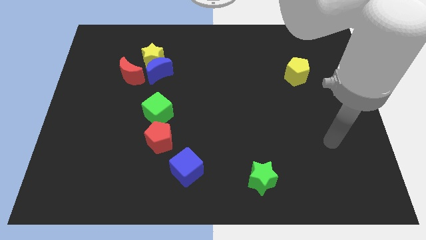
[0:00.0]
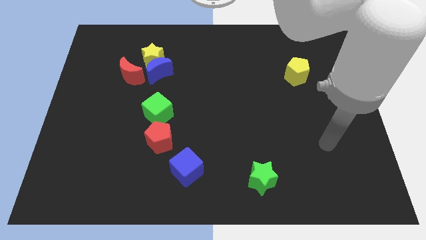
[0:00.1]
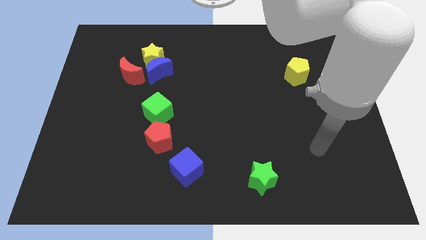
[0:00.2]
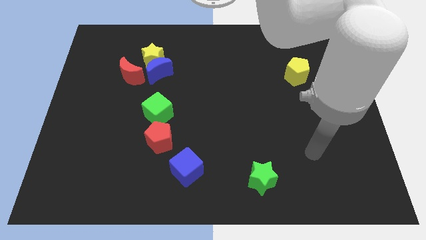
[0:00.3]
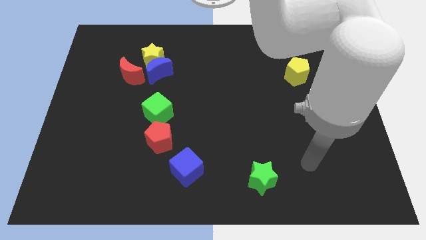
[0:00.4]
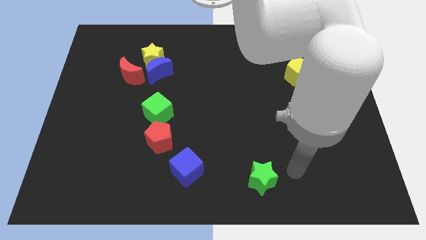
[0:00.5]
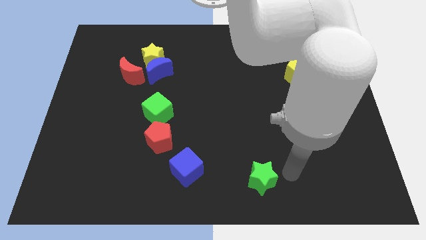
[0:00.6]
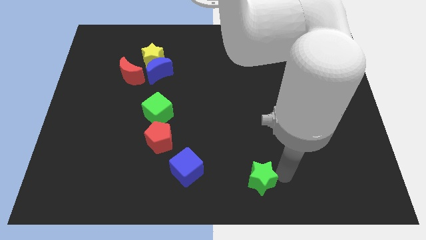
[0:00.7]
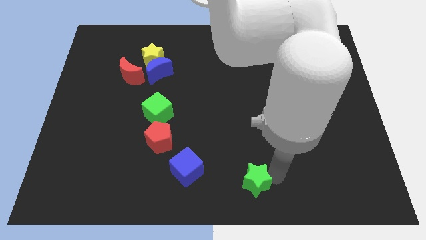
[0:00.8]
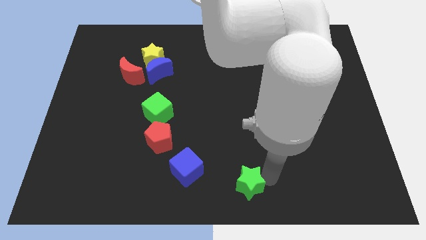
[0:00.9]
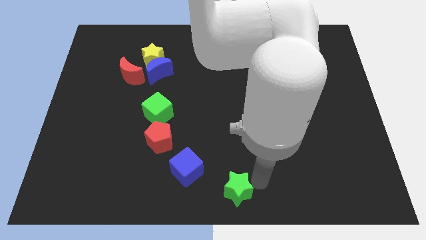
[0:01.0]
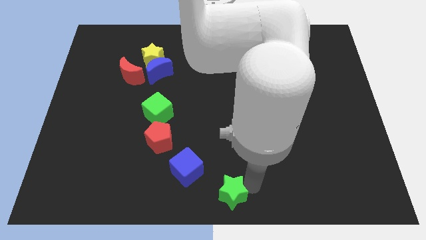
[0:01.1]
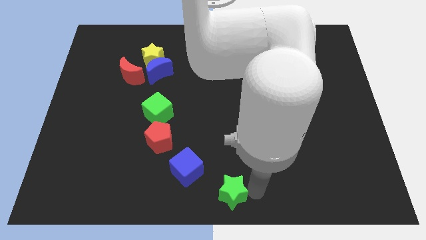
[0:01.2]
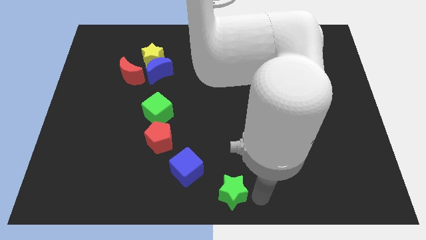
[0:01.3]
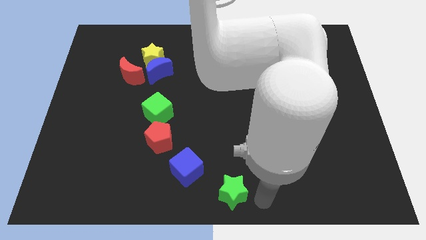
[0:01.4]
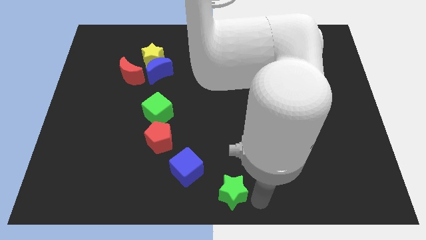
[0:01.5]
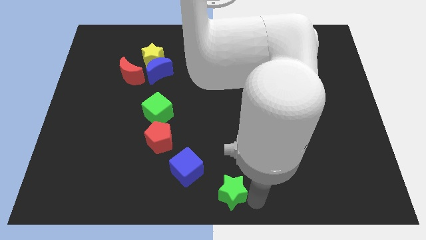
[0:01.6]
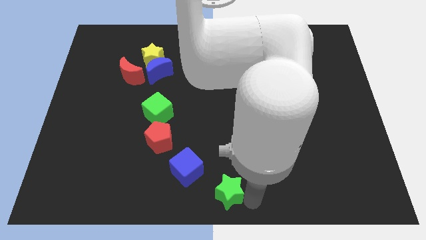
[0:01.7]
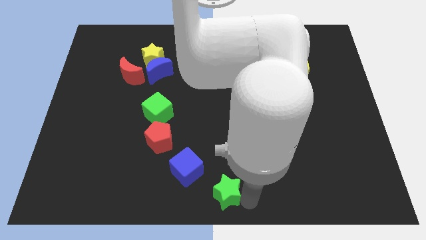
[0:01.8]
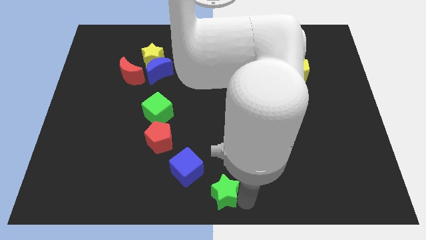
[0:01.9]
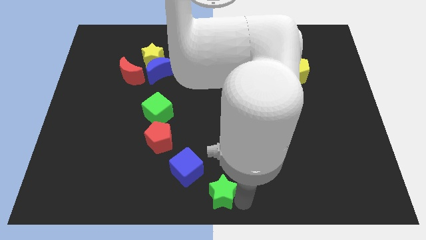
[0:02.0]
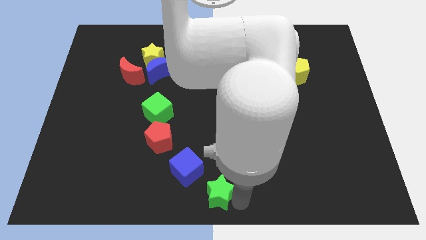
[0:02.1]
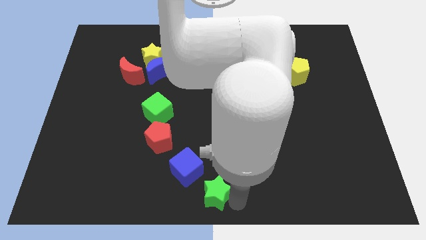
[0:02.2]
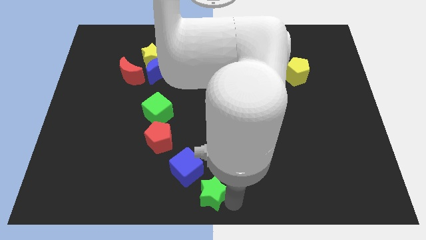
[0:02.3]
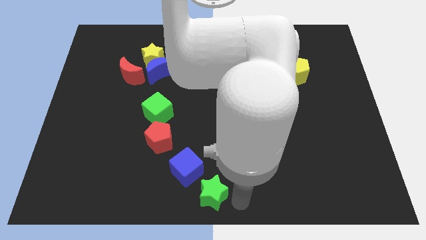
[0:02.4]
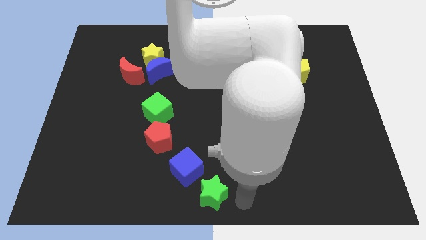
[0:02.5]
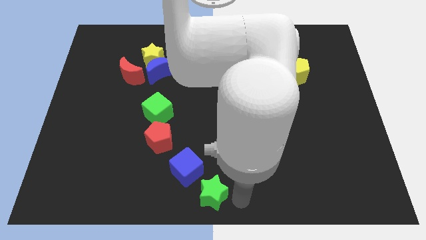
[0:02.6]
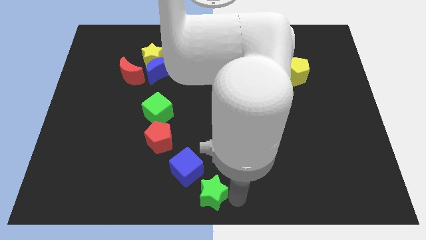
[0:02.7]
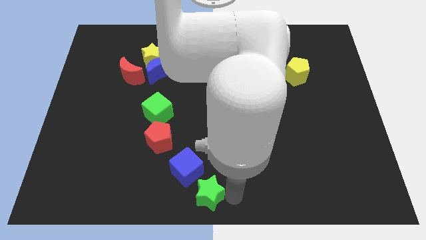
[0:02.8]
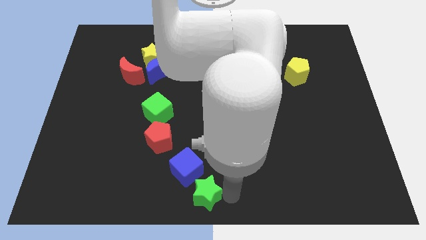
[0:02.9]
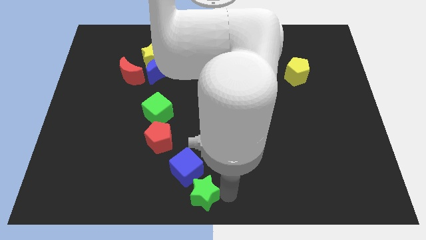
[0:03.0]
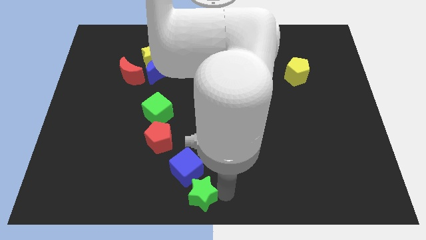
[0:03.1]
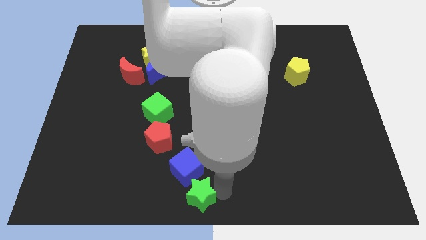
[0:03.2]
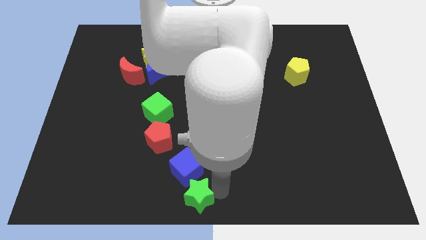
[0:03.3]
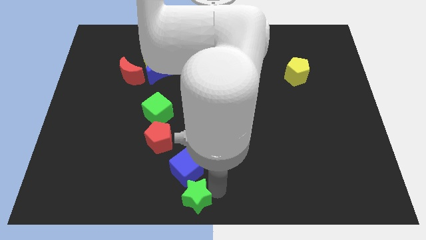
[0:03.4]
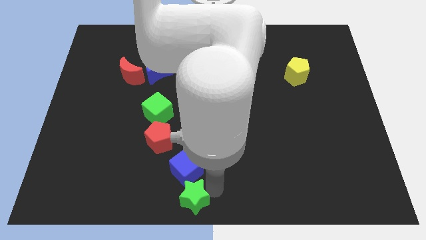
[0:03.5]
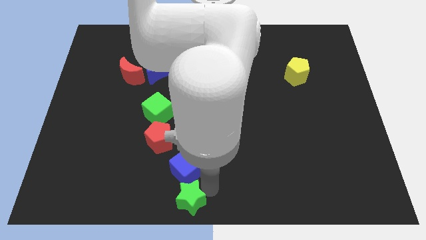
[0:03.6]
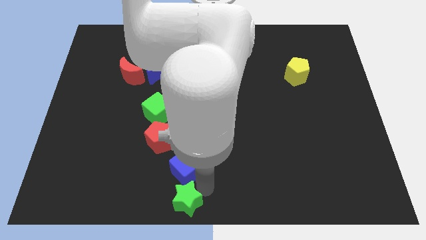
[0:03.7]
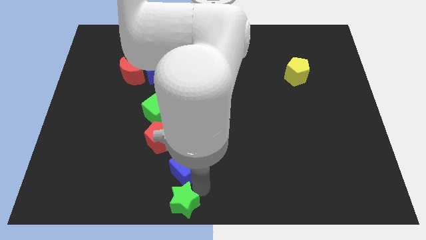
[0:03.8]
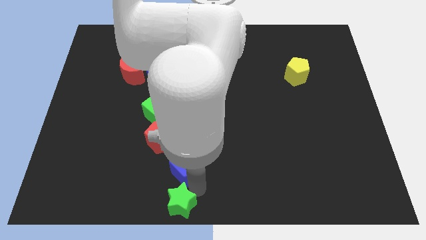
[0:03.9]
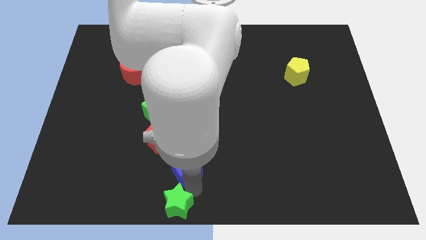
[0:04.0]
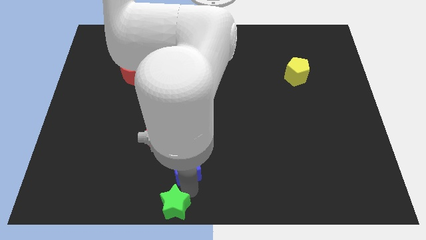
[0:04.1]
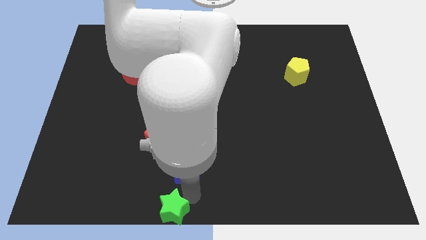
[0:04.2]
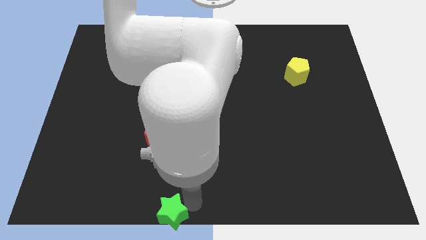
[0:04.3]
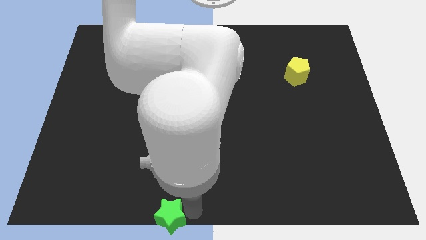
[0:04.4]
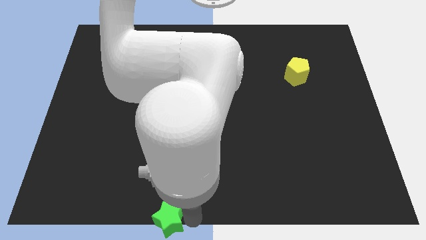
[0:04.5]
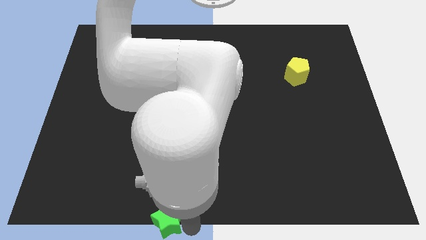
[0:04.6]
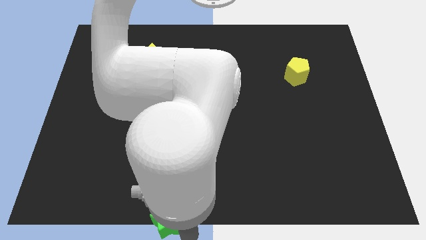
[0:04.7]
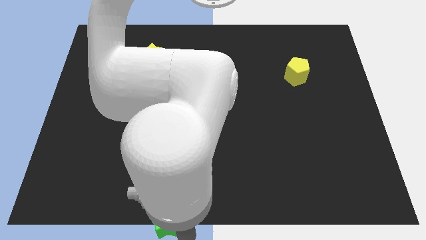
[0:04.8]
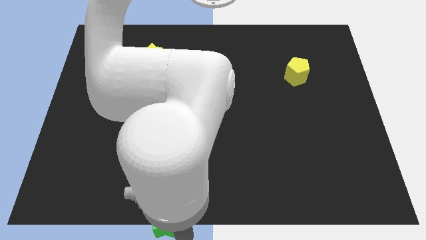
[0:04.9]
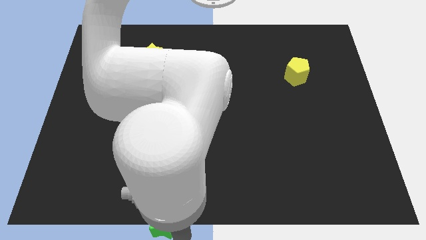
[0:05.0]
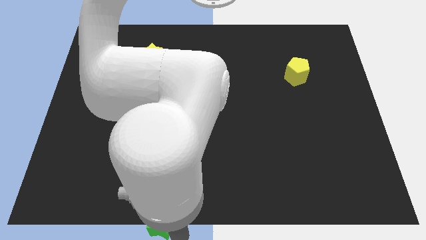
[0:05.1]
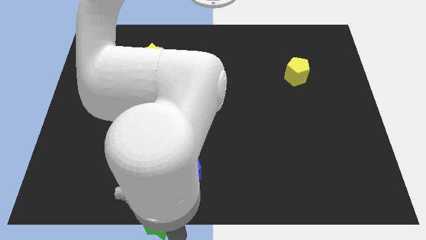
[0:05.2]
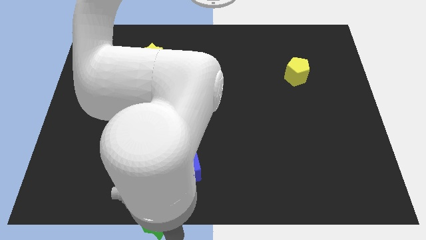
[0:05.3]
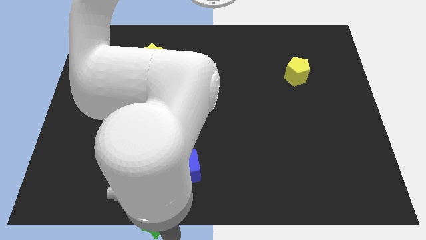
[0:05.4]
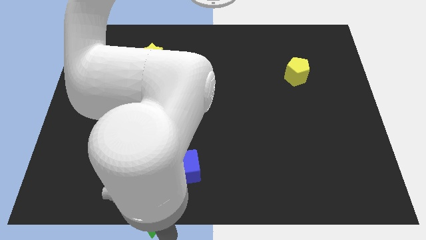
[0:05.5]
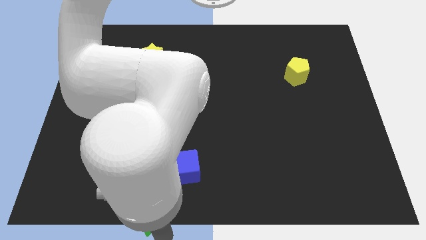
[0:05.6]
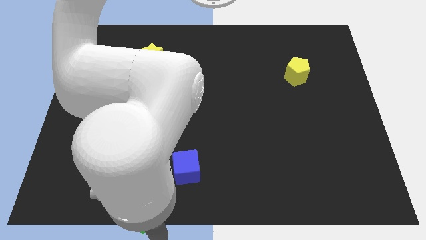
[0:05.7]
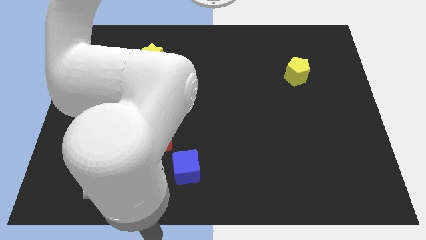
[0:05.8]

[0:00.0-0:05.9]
push the green star left

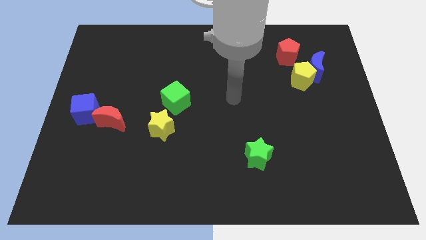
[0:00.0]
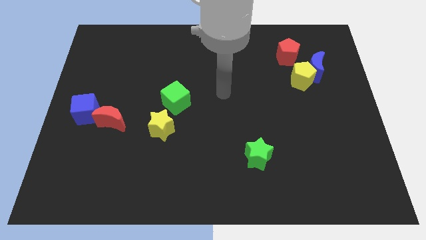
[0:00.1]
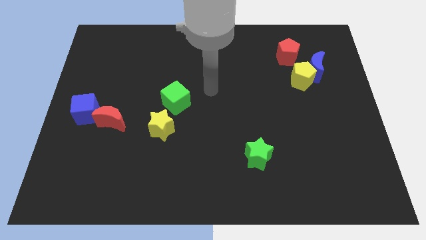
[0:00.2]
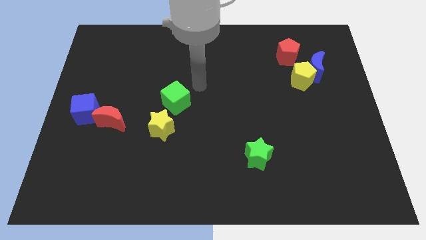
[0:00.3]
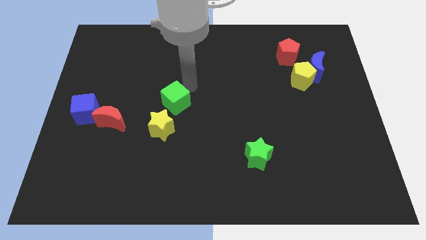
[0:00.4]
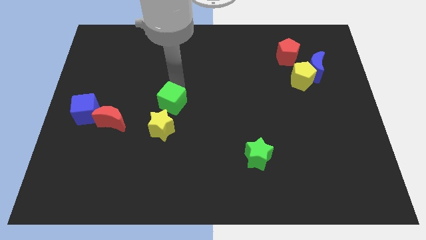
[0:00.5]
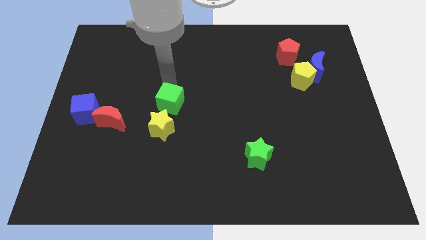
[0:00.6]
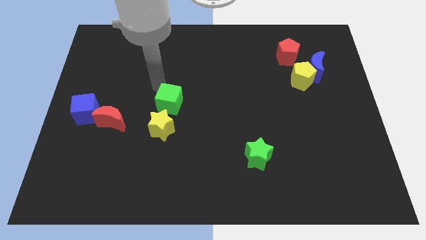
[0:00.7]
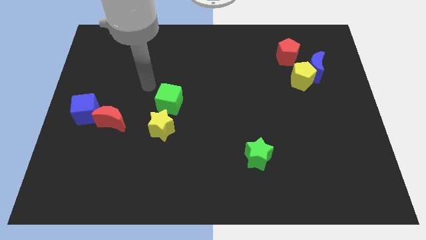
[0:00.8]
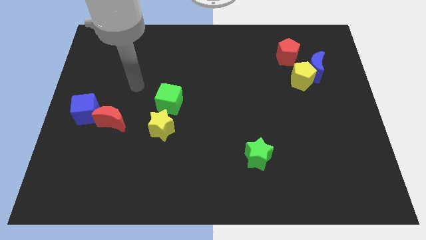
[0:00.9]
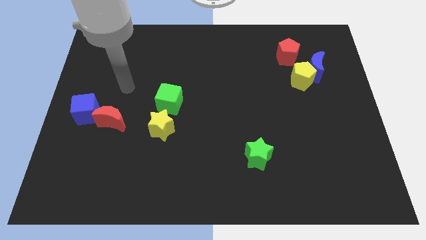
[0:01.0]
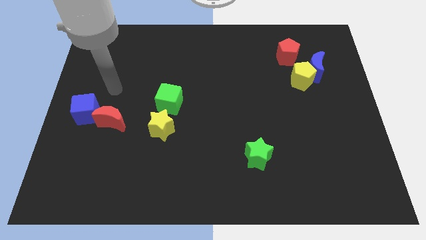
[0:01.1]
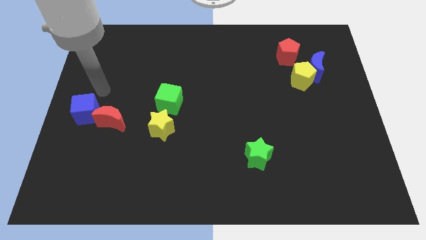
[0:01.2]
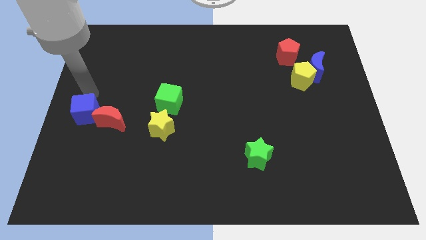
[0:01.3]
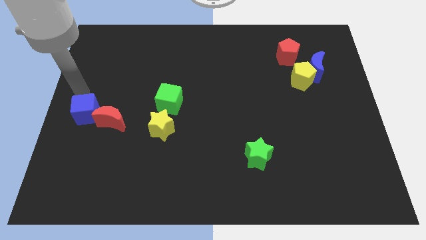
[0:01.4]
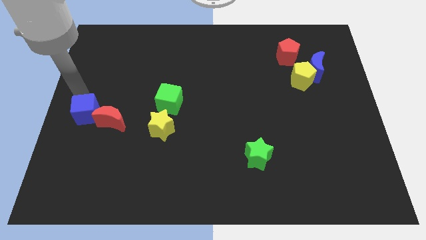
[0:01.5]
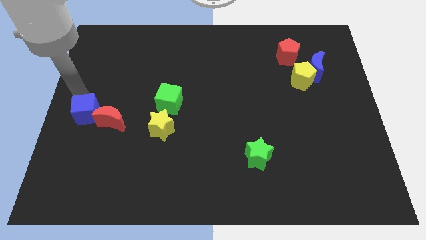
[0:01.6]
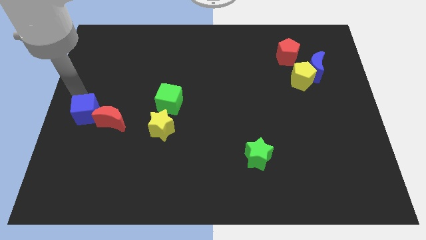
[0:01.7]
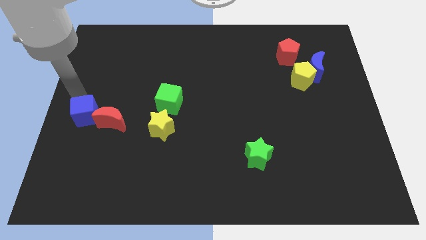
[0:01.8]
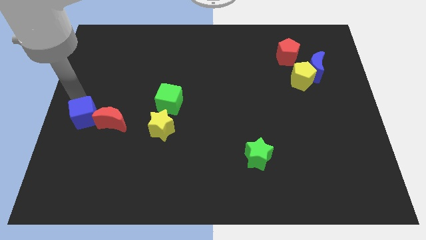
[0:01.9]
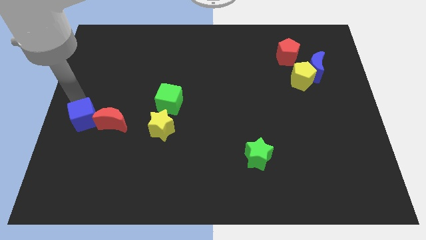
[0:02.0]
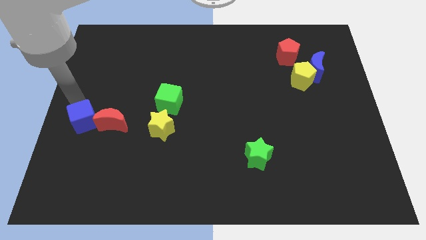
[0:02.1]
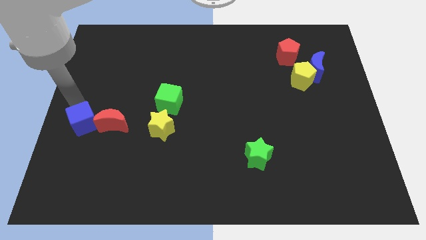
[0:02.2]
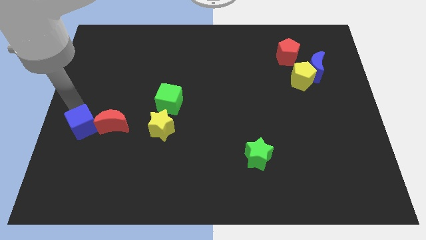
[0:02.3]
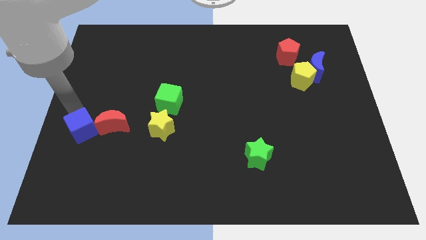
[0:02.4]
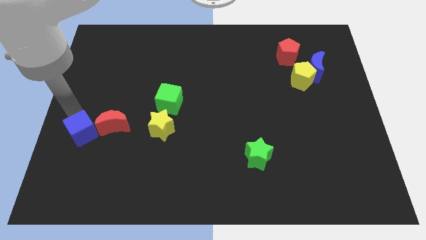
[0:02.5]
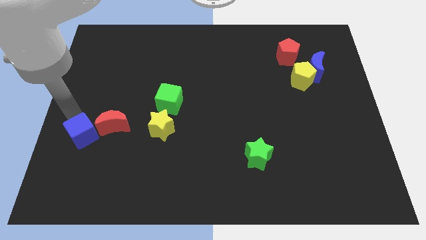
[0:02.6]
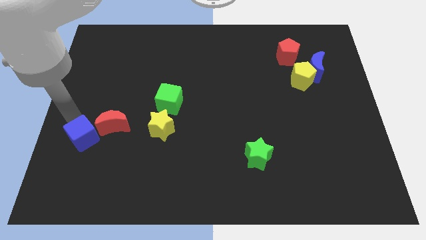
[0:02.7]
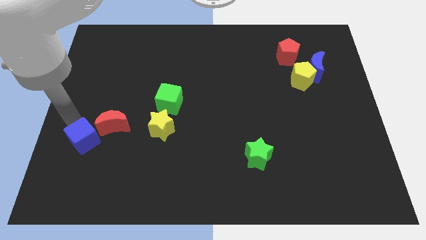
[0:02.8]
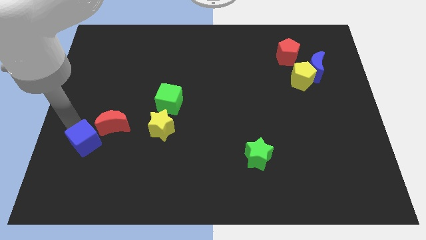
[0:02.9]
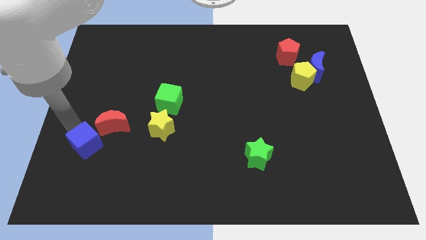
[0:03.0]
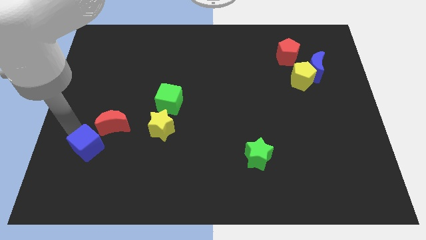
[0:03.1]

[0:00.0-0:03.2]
slightly slide the blue cube diagonally down and to the right
